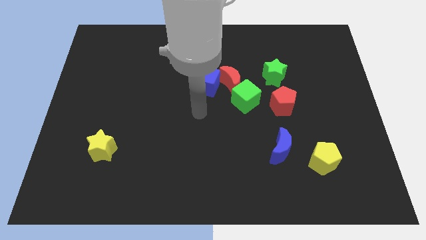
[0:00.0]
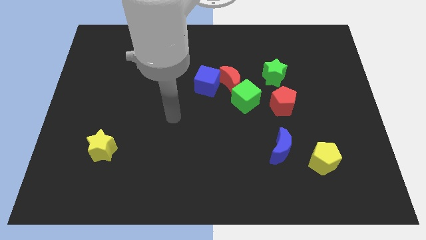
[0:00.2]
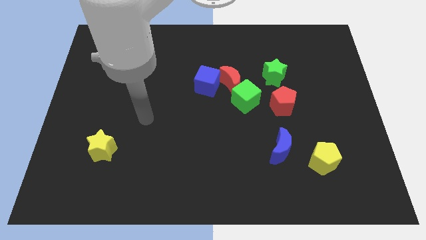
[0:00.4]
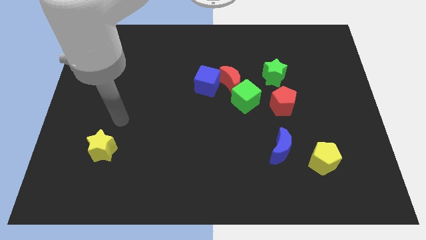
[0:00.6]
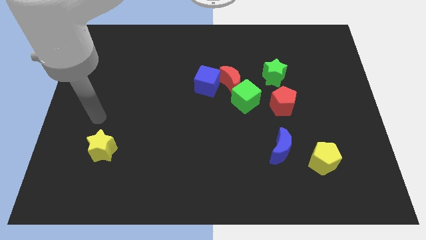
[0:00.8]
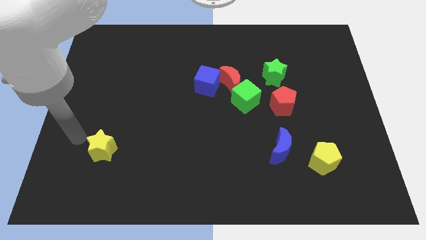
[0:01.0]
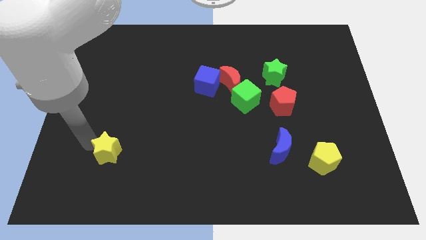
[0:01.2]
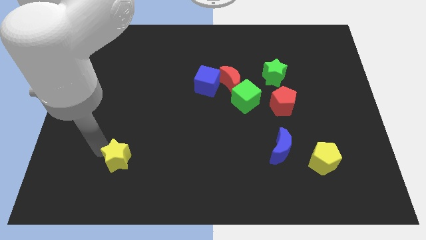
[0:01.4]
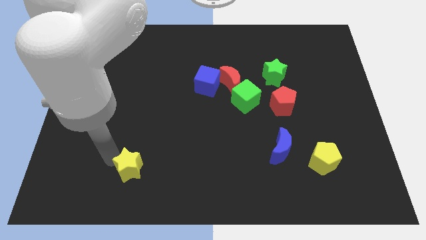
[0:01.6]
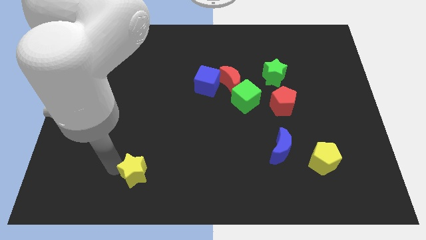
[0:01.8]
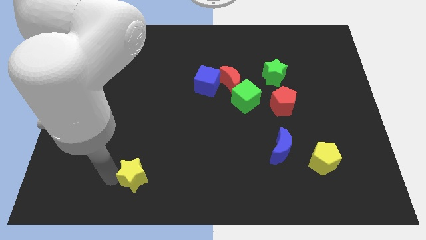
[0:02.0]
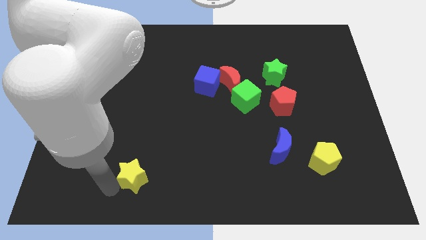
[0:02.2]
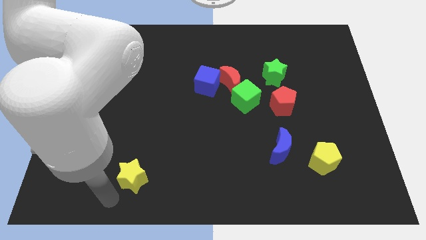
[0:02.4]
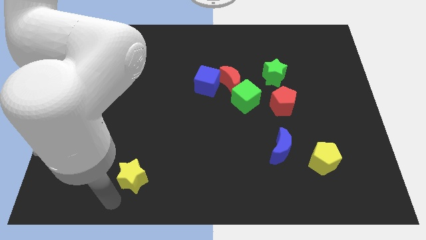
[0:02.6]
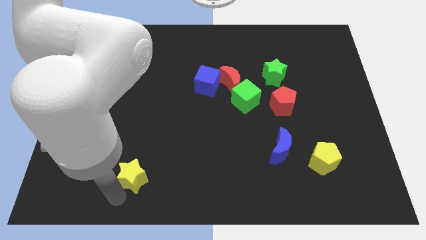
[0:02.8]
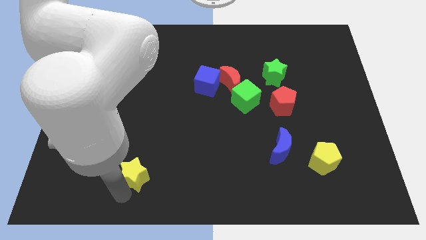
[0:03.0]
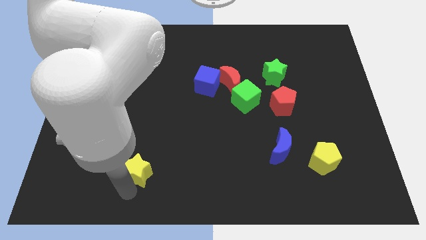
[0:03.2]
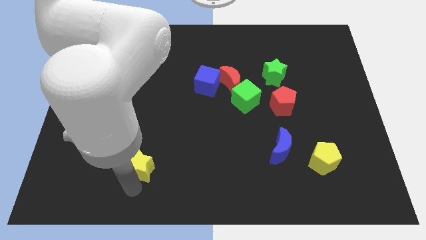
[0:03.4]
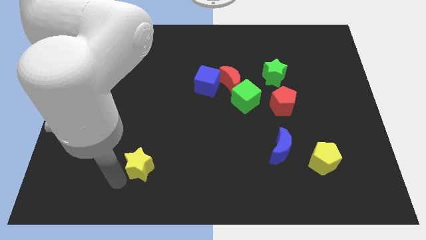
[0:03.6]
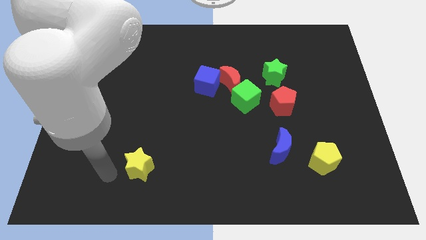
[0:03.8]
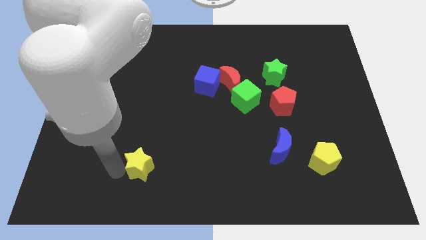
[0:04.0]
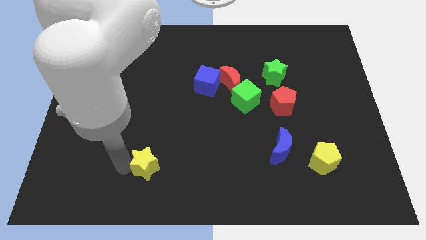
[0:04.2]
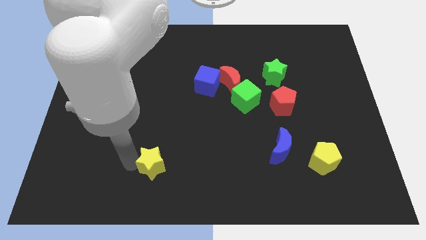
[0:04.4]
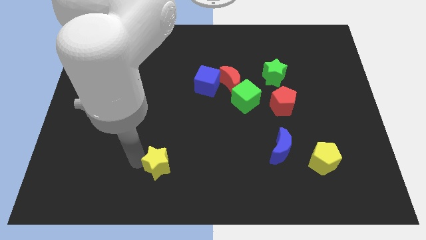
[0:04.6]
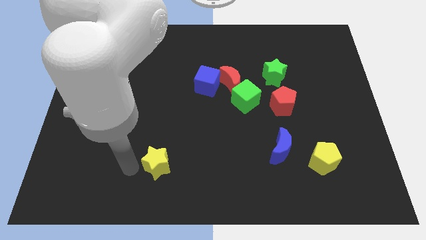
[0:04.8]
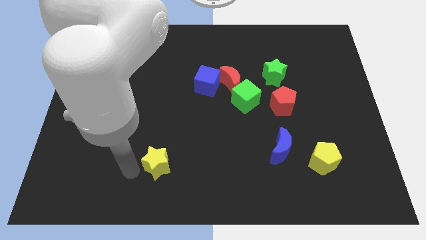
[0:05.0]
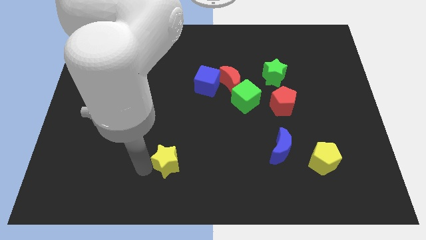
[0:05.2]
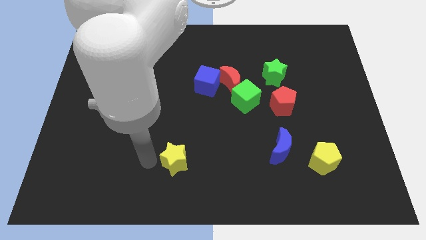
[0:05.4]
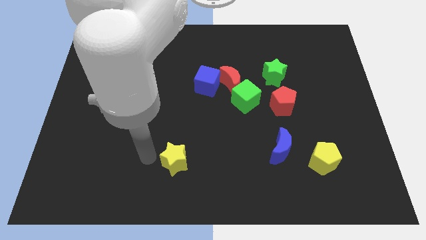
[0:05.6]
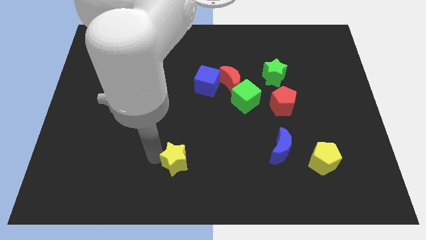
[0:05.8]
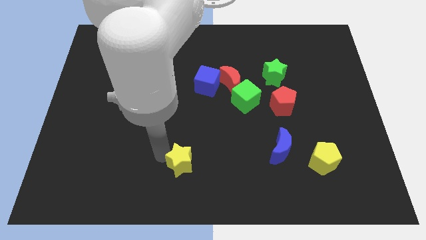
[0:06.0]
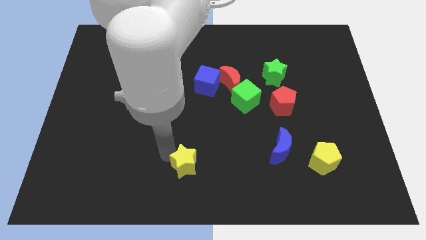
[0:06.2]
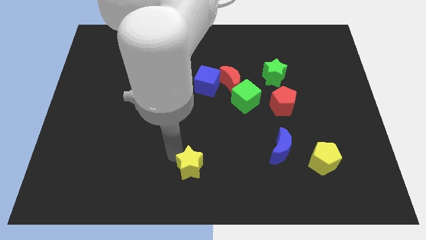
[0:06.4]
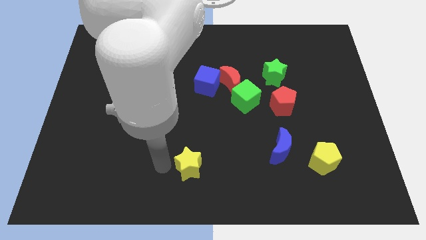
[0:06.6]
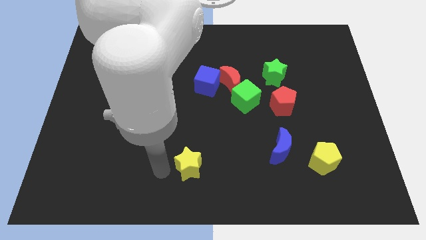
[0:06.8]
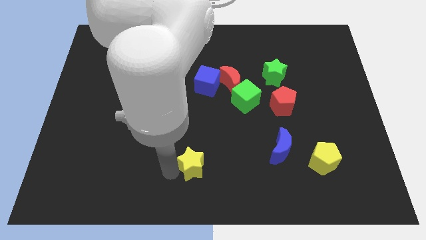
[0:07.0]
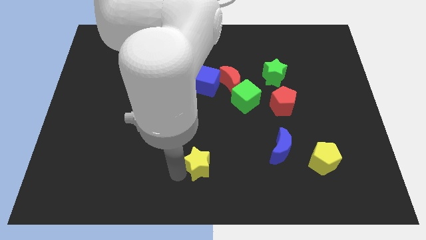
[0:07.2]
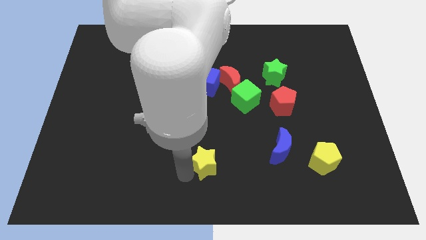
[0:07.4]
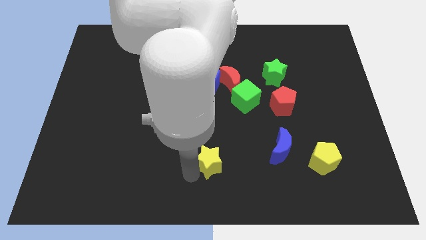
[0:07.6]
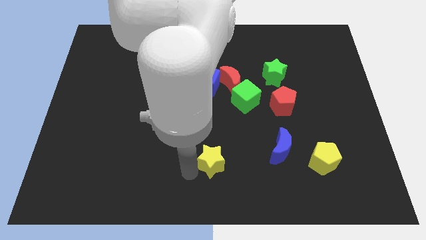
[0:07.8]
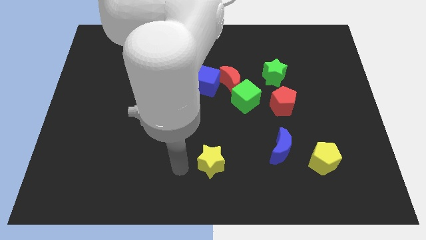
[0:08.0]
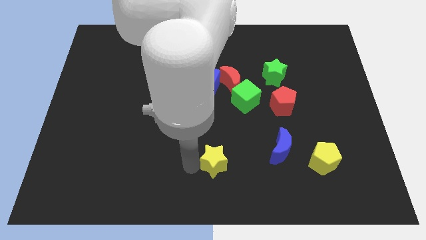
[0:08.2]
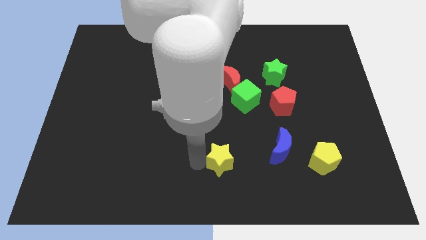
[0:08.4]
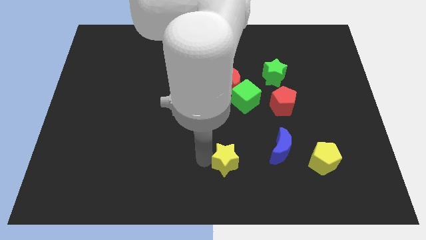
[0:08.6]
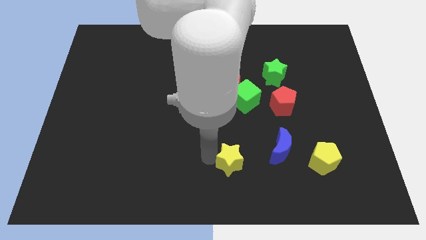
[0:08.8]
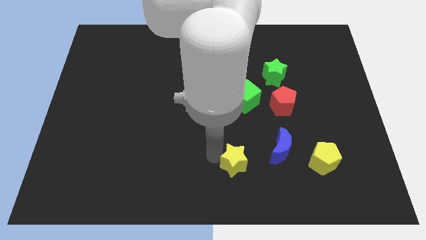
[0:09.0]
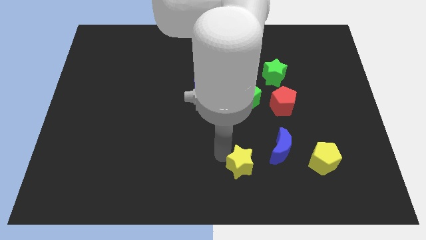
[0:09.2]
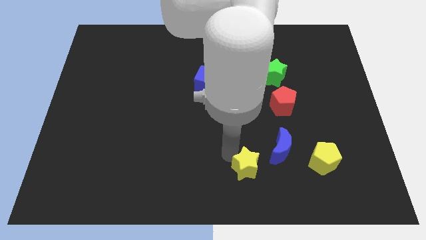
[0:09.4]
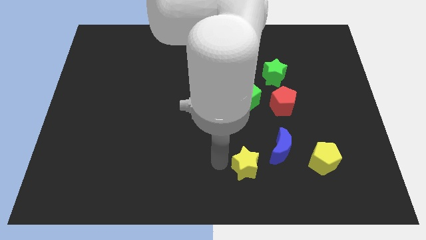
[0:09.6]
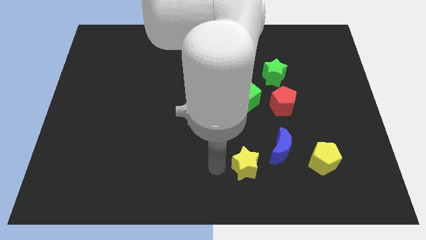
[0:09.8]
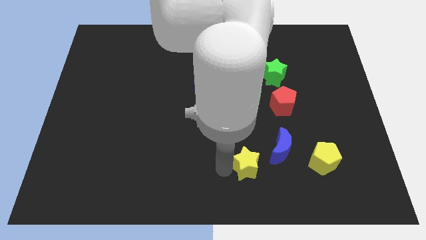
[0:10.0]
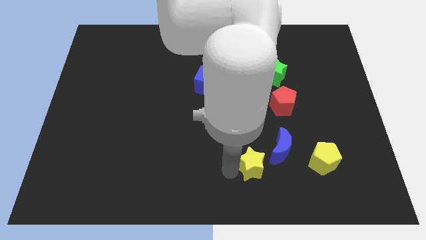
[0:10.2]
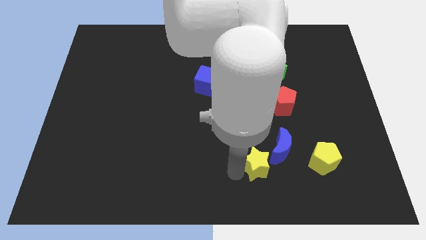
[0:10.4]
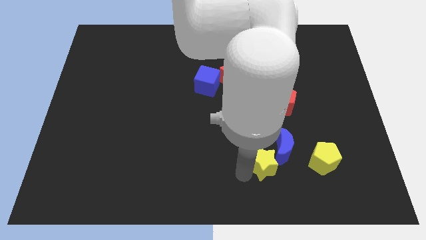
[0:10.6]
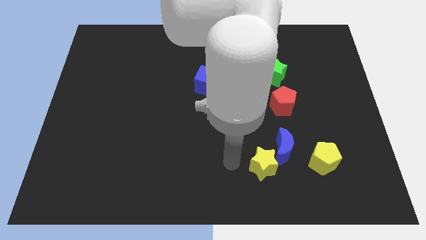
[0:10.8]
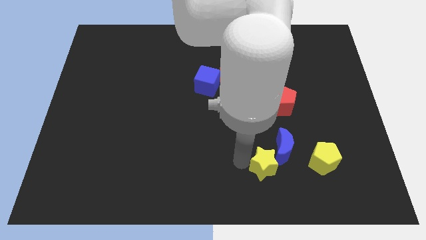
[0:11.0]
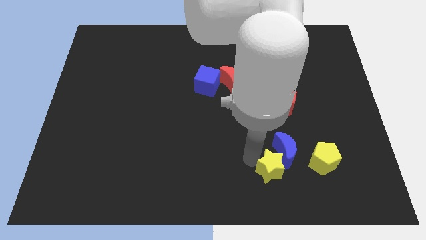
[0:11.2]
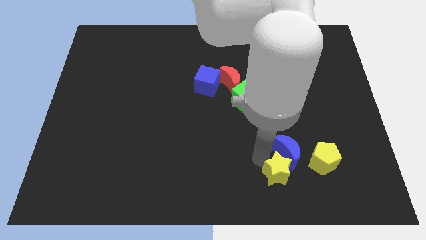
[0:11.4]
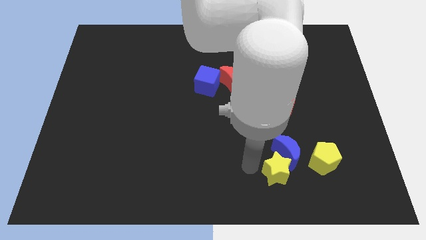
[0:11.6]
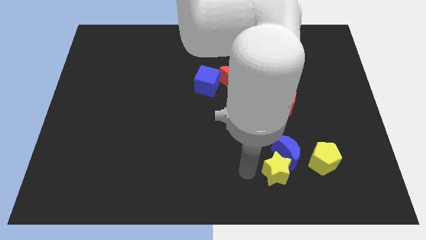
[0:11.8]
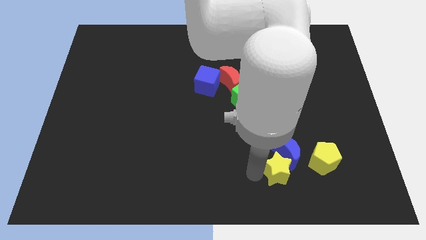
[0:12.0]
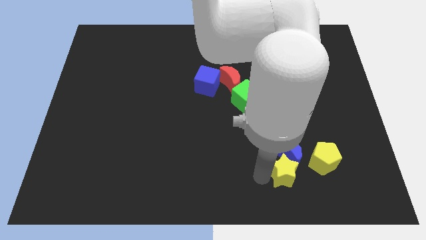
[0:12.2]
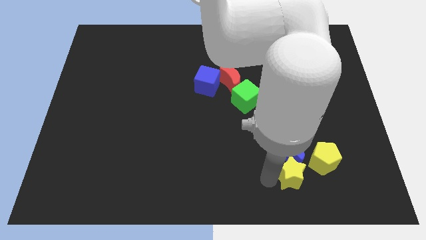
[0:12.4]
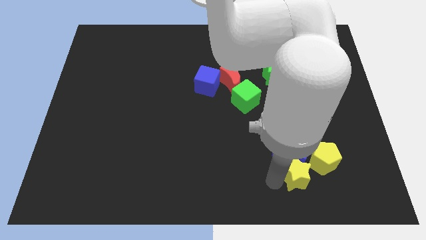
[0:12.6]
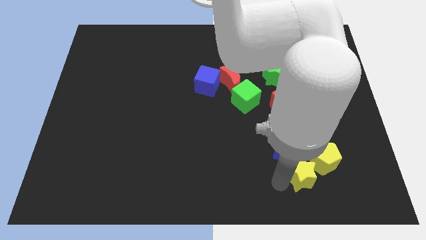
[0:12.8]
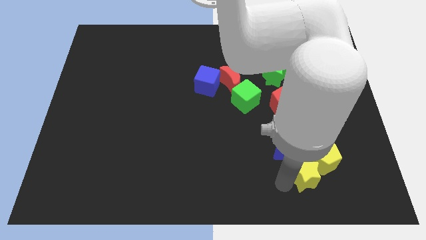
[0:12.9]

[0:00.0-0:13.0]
push the yellow star towards the yellow pentagon
